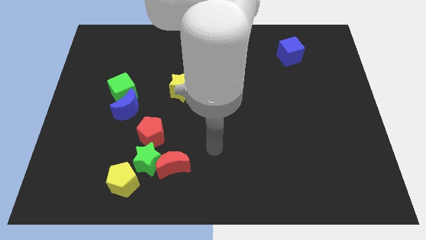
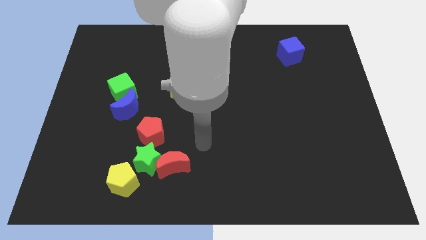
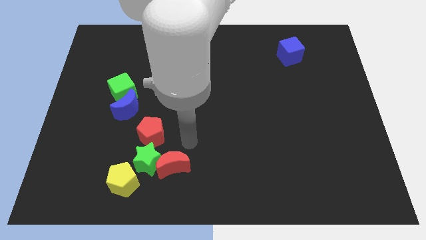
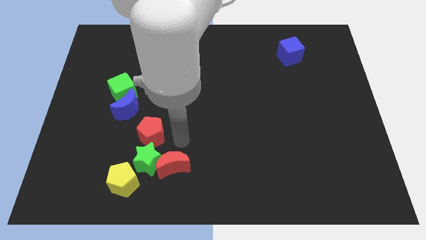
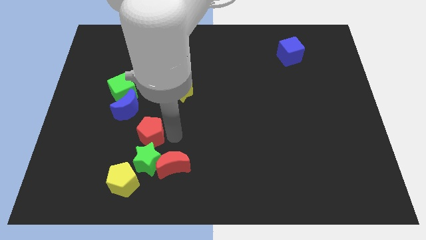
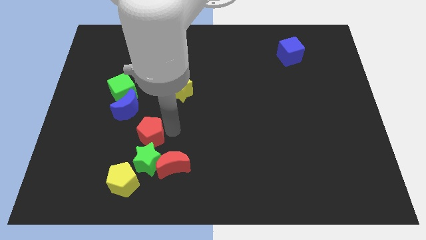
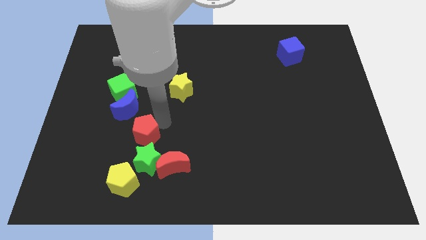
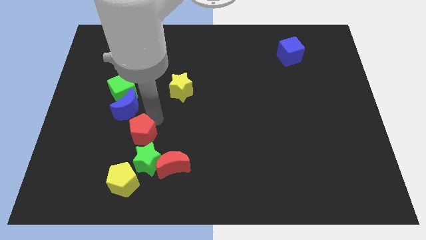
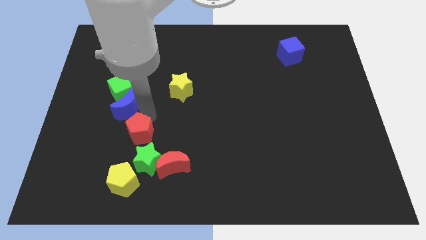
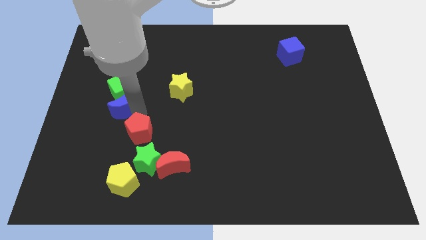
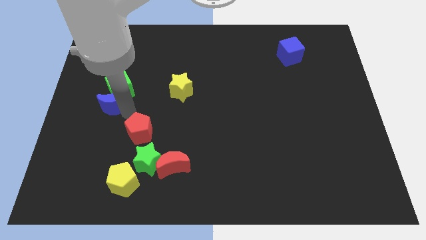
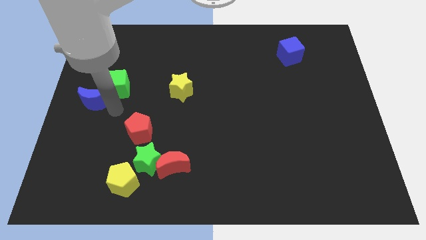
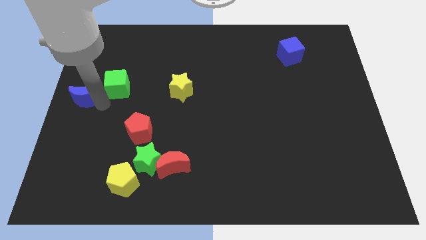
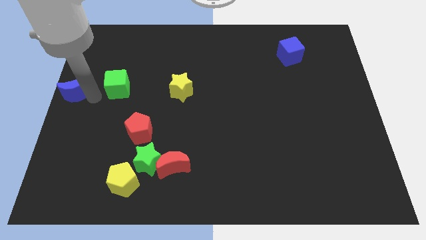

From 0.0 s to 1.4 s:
separate the green cube from the blue moon

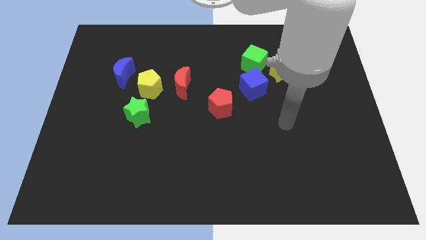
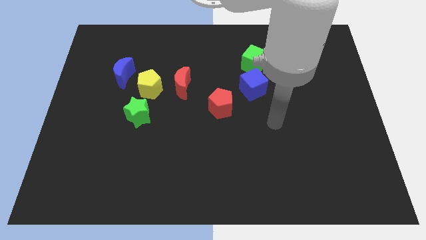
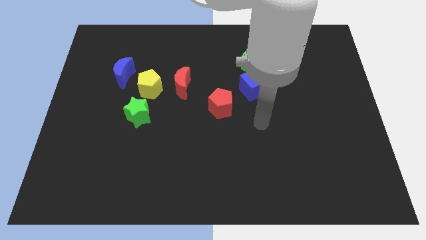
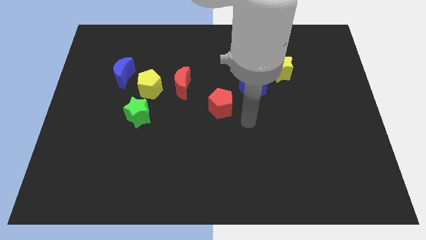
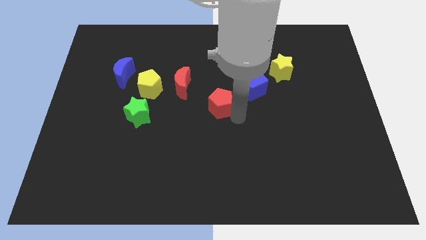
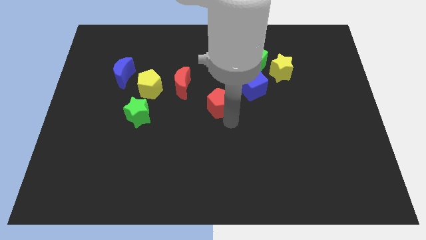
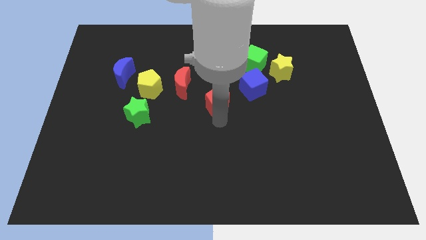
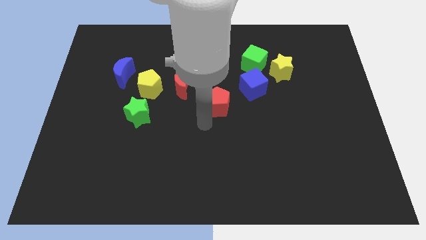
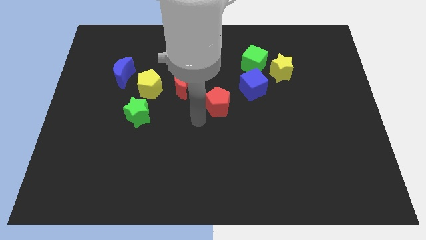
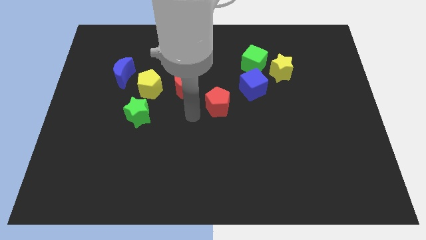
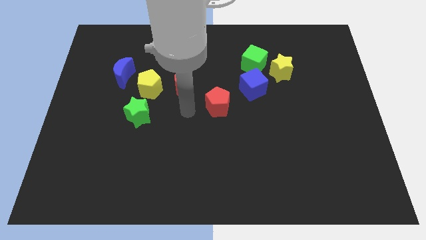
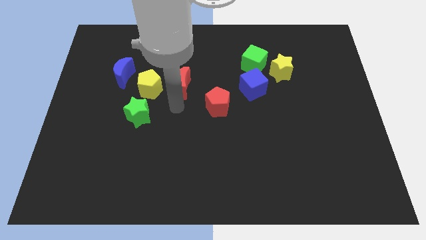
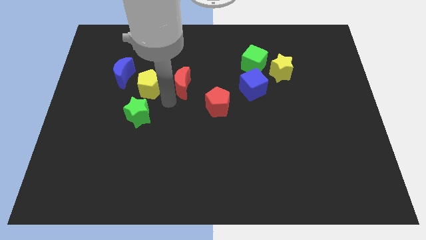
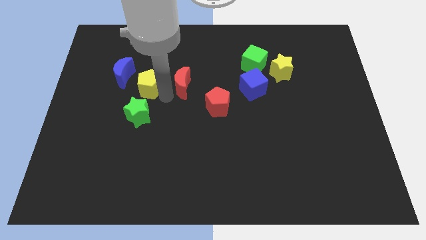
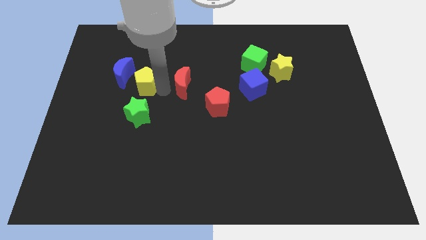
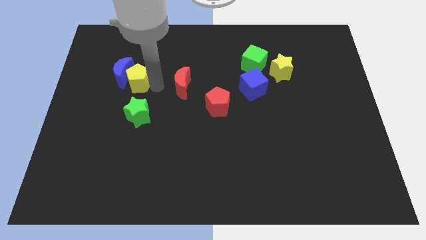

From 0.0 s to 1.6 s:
move the red moon away from the yellow pentagon

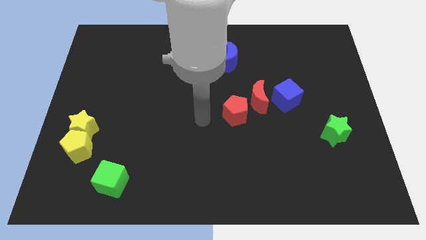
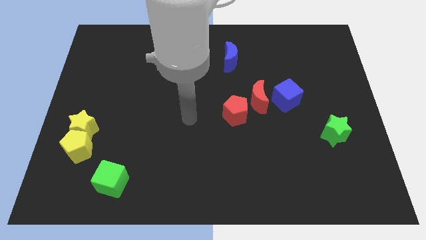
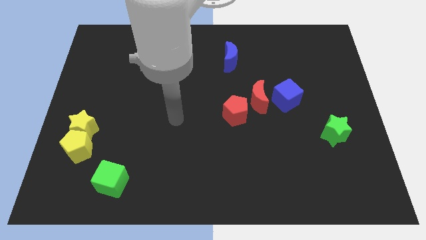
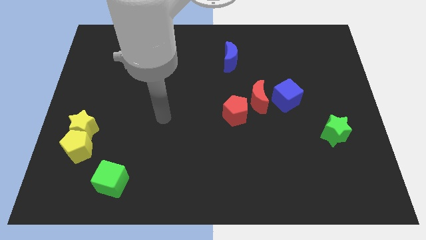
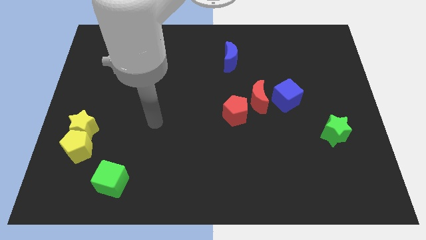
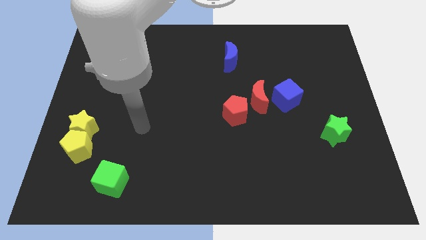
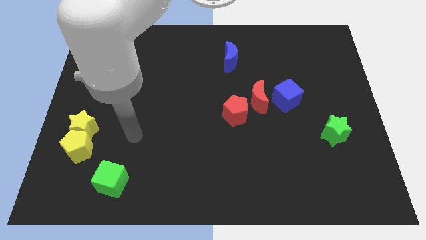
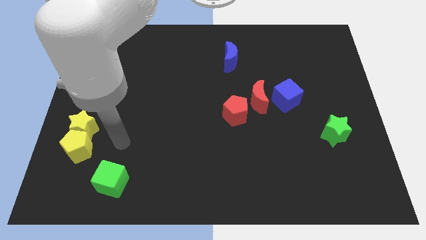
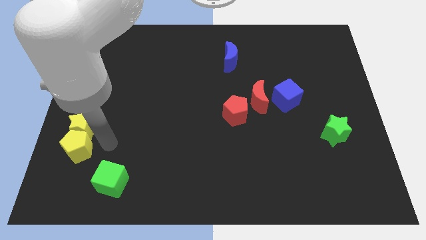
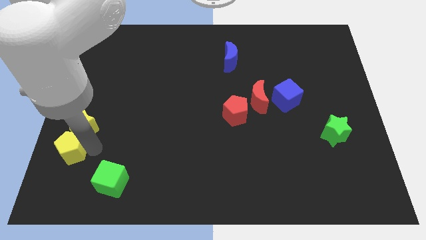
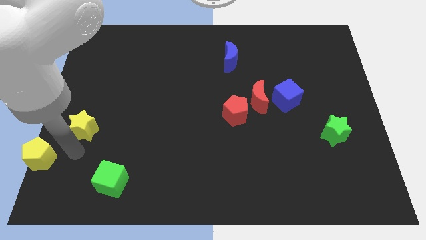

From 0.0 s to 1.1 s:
move the yellow star away from the yellow pentagon

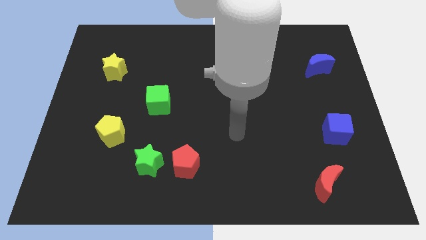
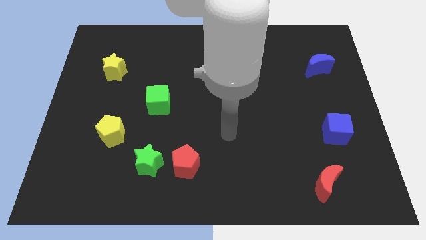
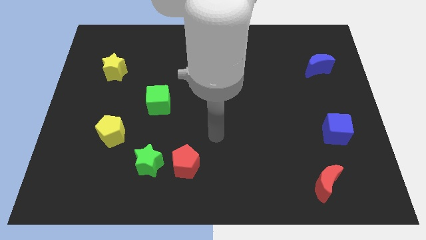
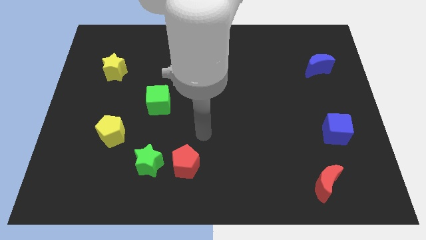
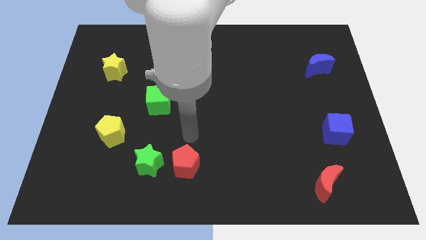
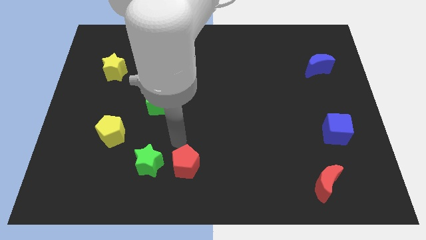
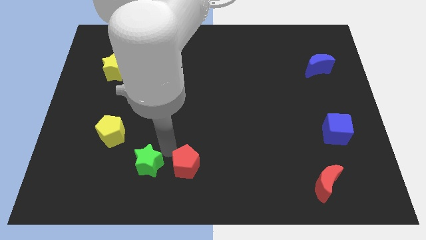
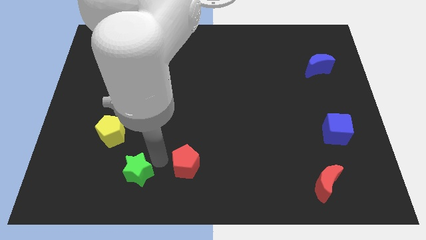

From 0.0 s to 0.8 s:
move the red pentagon away from the green star

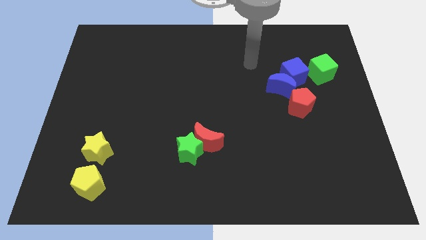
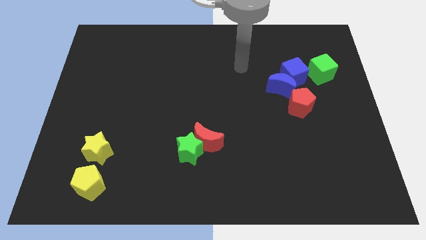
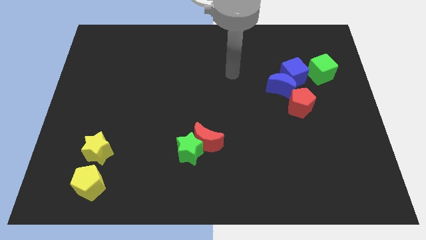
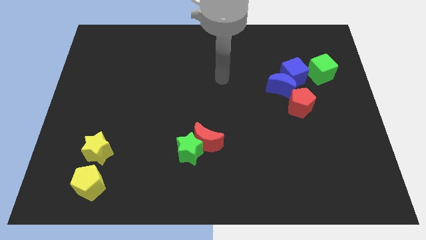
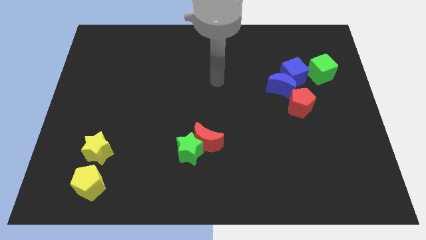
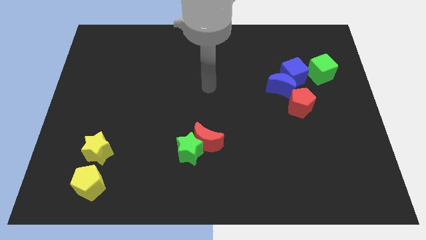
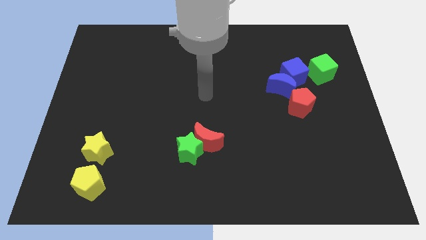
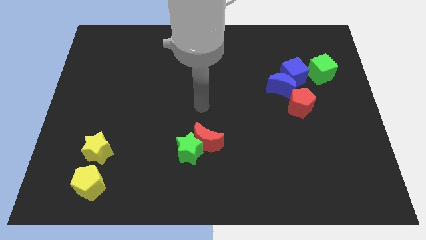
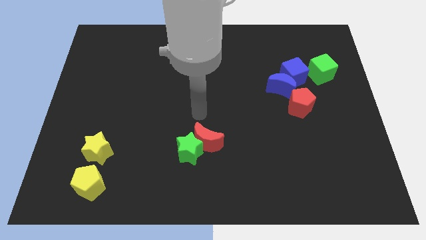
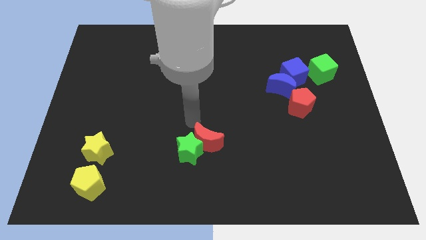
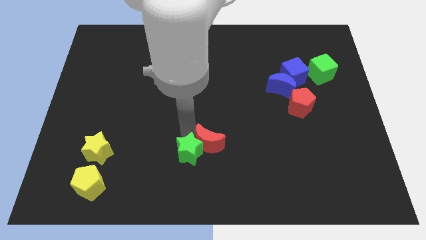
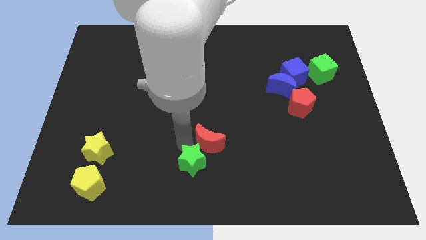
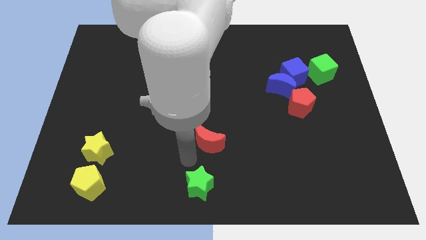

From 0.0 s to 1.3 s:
separate the red moon from the green star

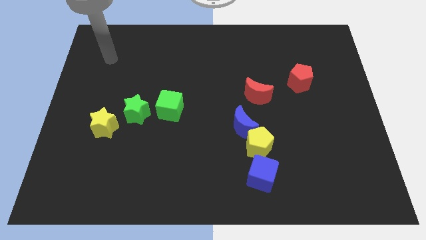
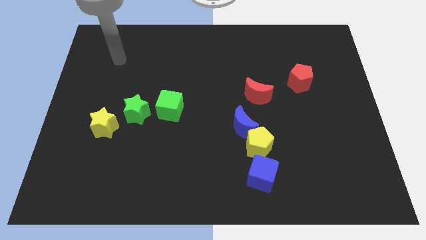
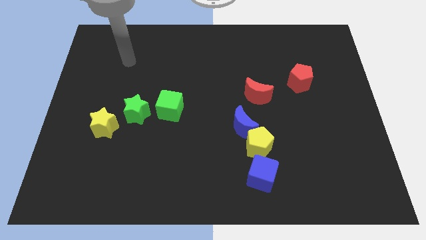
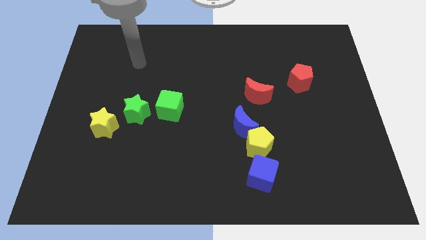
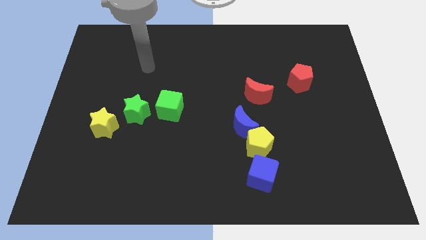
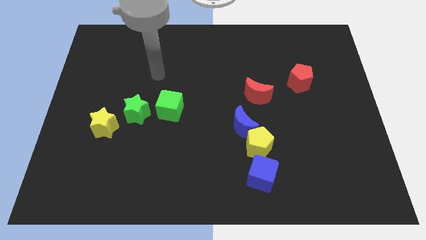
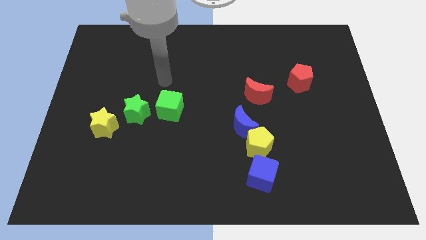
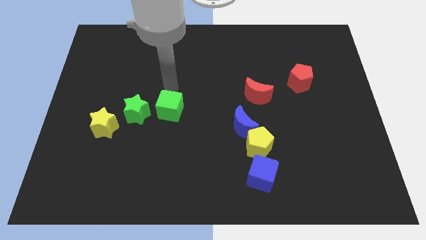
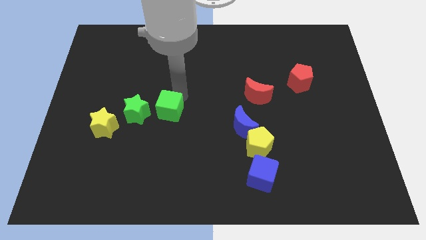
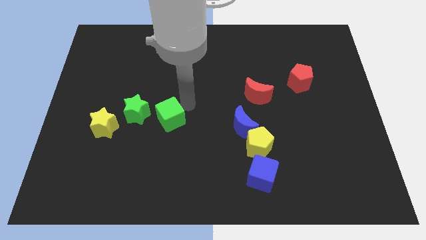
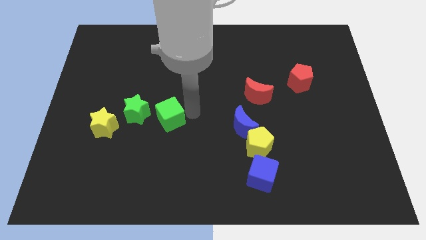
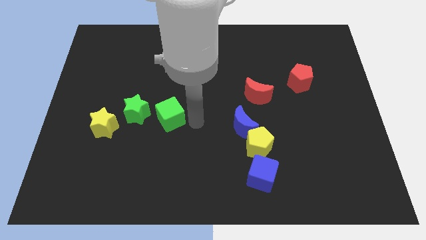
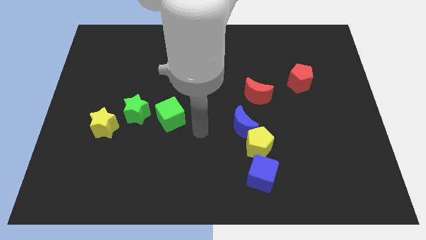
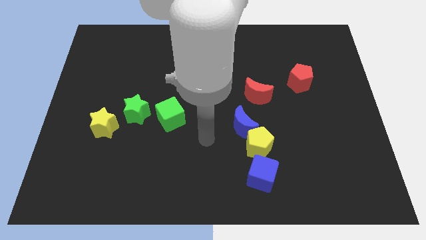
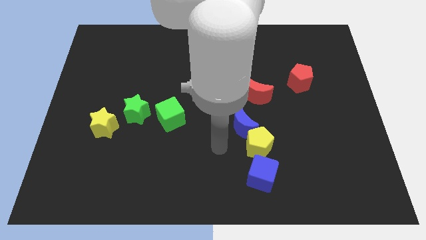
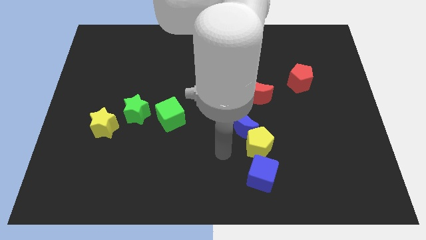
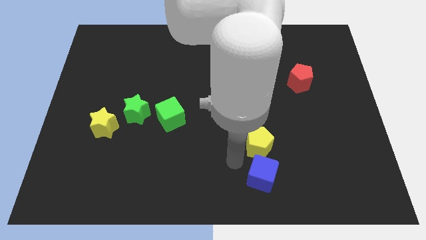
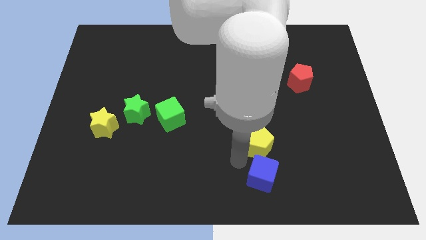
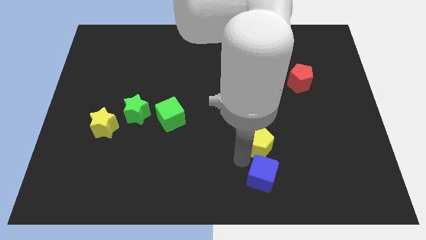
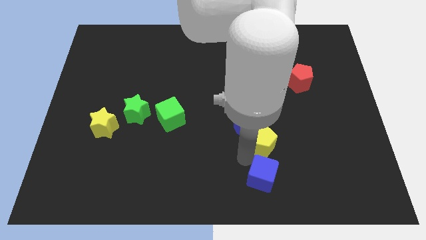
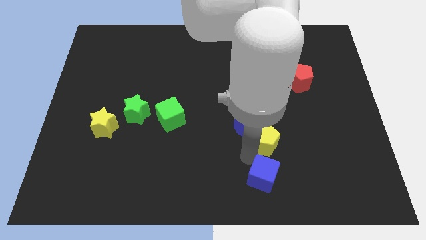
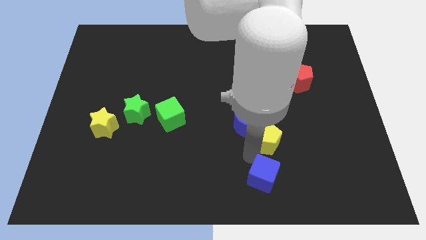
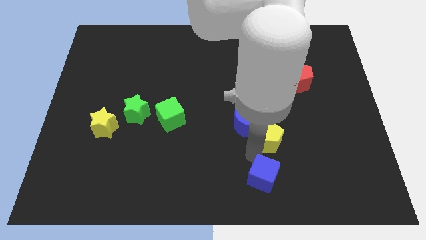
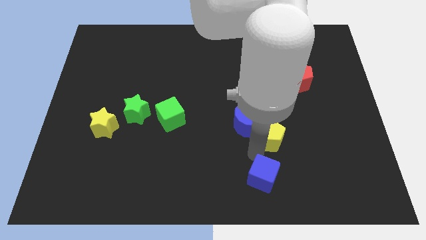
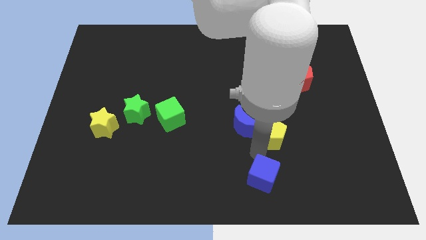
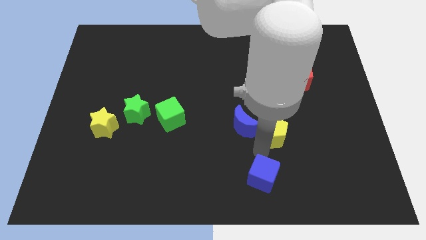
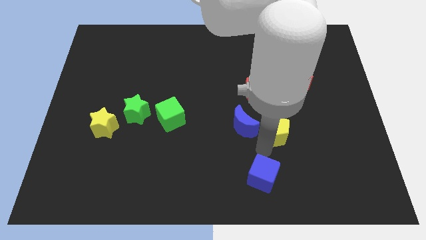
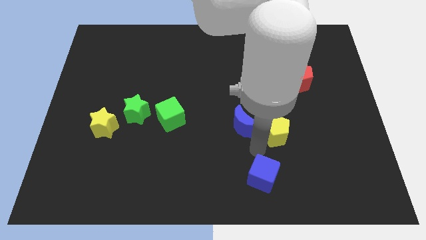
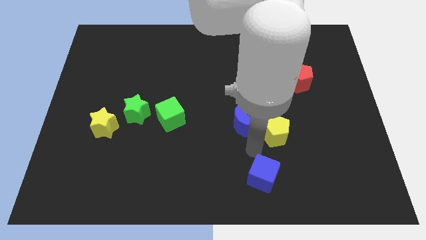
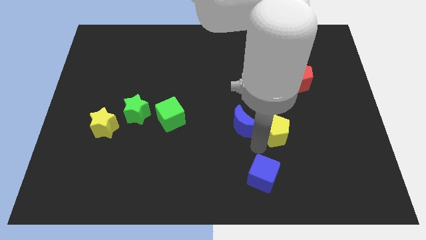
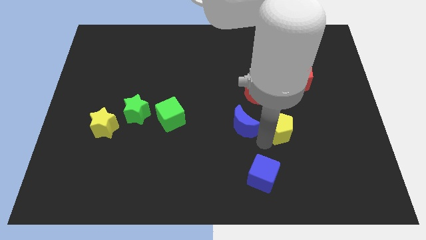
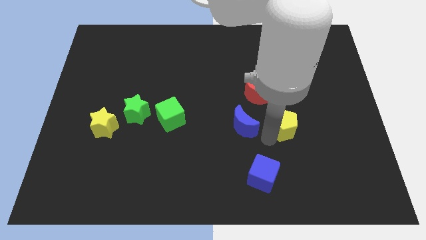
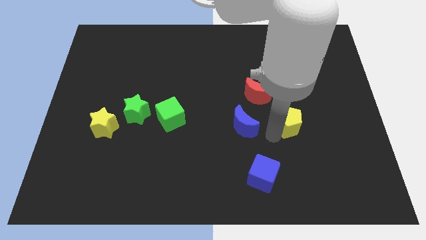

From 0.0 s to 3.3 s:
separate the yellow pentagon from the blue moon and blue cube
